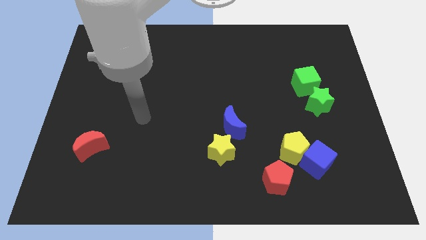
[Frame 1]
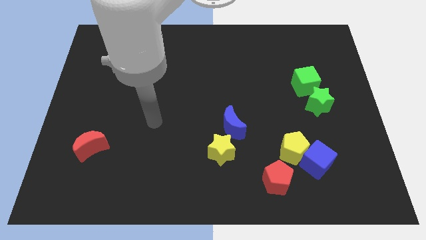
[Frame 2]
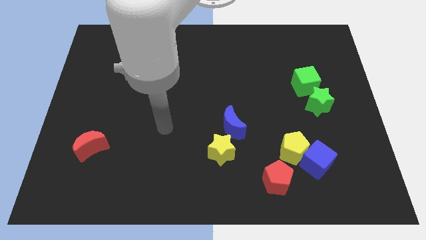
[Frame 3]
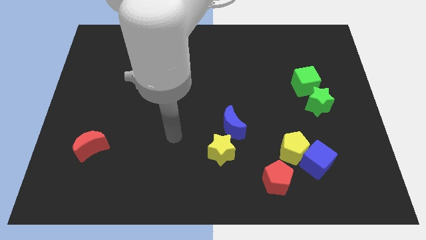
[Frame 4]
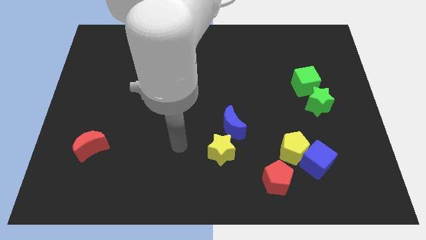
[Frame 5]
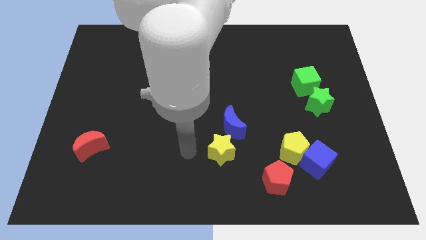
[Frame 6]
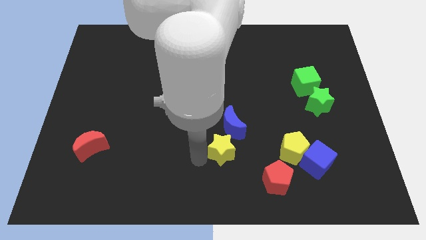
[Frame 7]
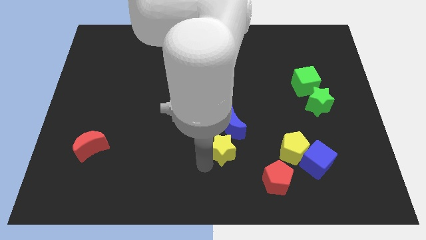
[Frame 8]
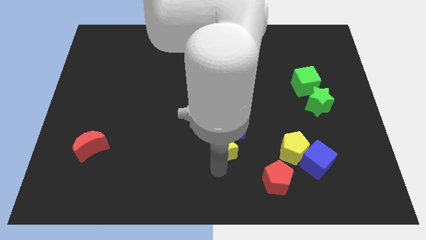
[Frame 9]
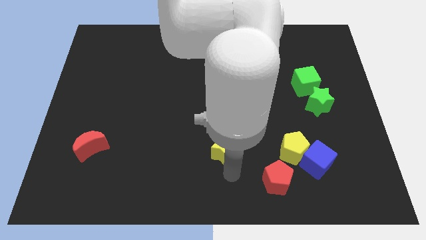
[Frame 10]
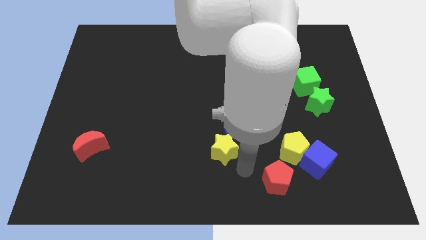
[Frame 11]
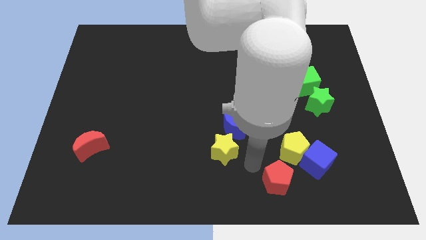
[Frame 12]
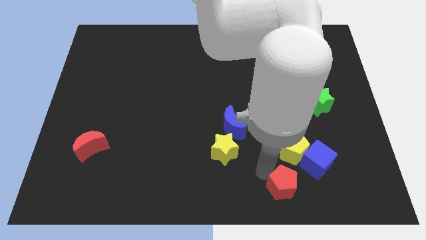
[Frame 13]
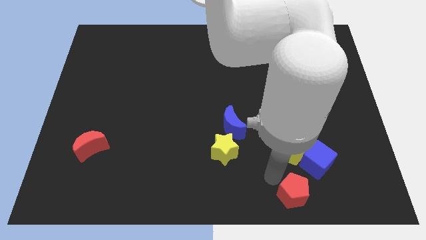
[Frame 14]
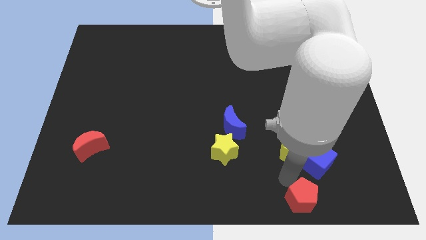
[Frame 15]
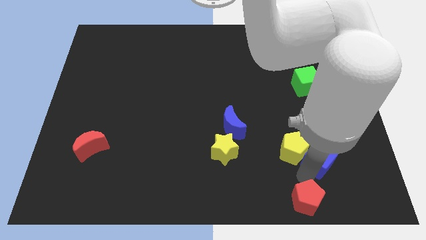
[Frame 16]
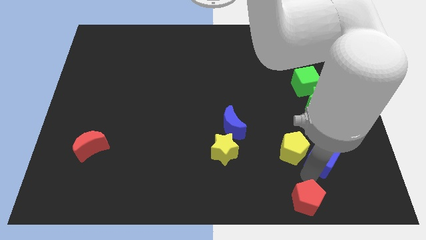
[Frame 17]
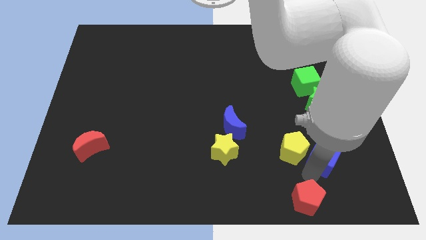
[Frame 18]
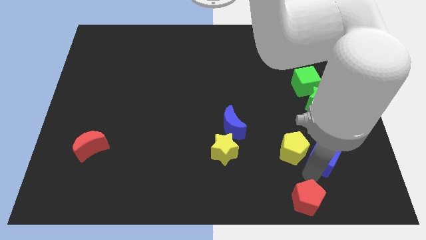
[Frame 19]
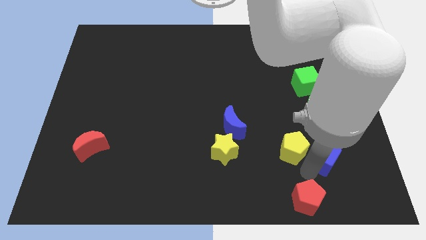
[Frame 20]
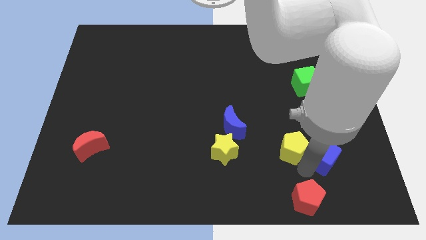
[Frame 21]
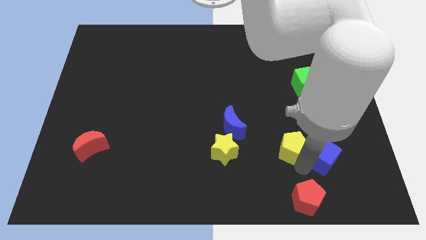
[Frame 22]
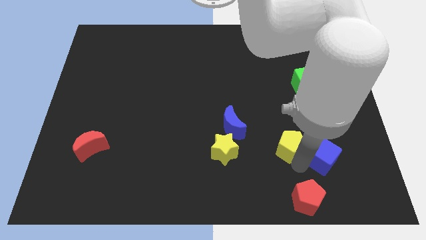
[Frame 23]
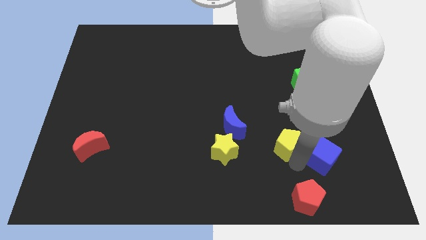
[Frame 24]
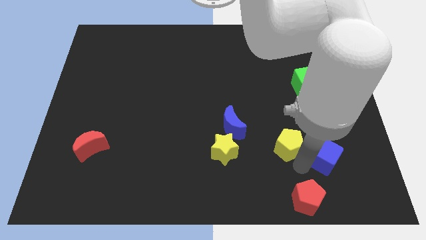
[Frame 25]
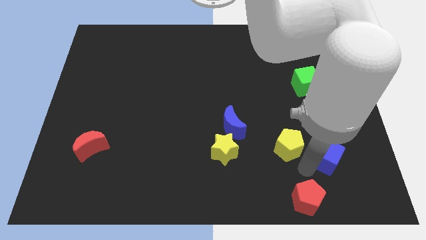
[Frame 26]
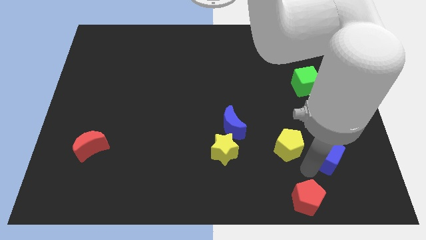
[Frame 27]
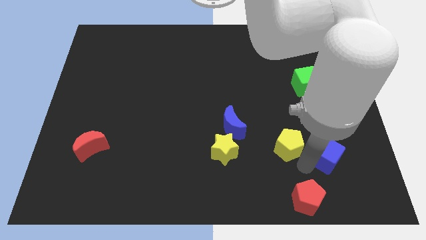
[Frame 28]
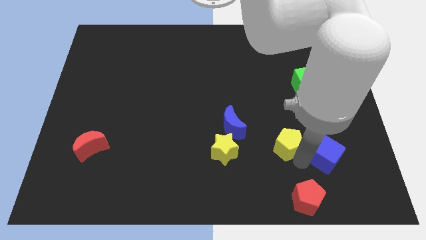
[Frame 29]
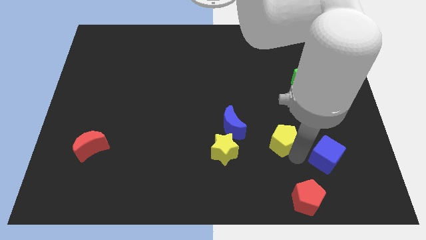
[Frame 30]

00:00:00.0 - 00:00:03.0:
move the yellow pentagon away from the blue cube and red pentagon

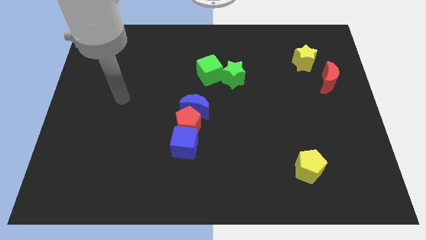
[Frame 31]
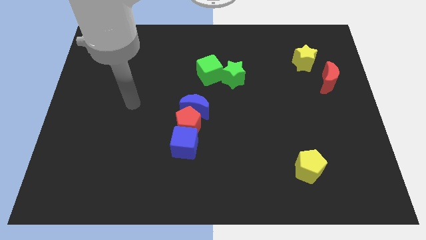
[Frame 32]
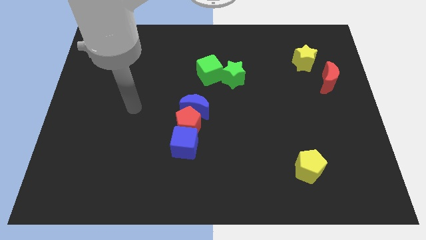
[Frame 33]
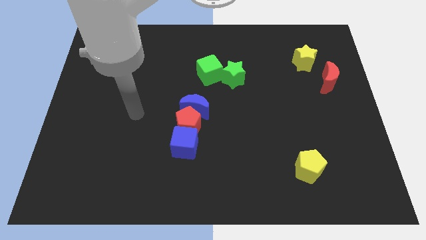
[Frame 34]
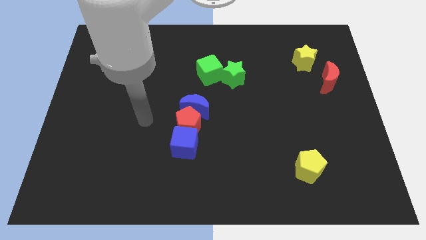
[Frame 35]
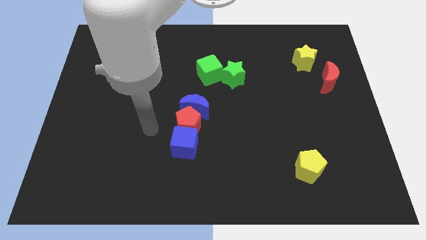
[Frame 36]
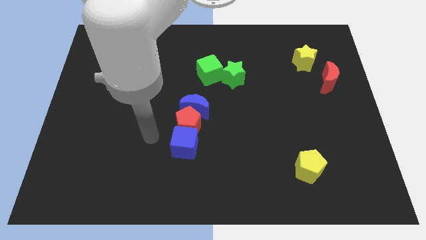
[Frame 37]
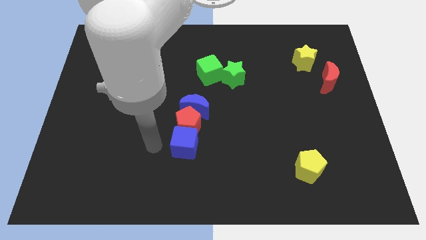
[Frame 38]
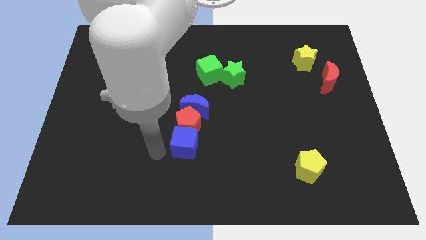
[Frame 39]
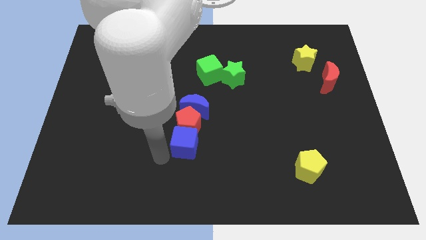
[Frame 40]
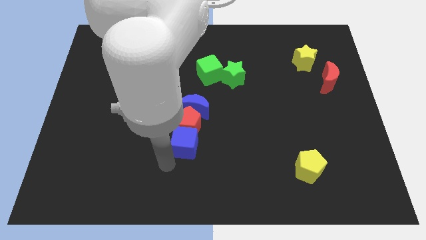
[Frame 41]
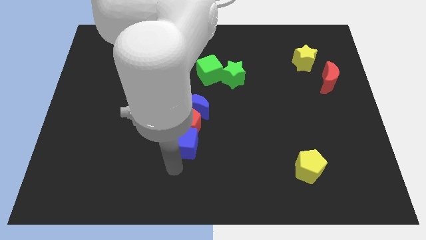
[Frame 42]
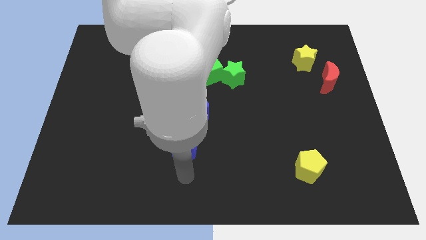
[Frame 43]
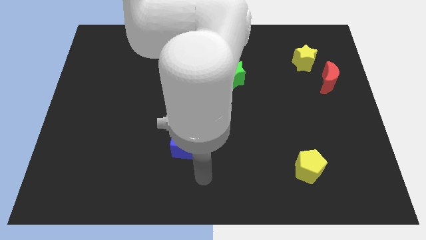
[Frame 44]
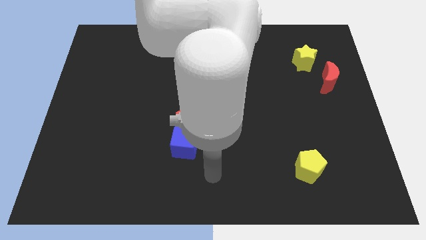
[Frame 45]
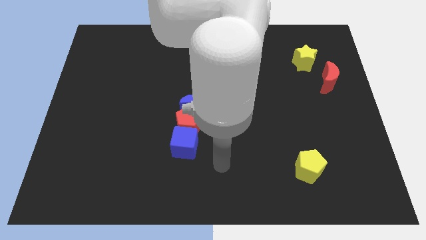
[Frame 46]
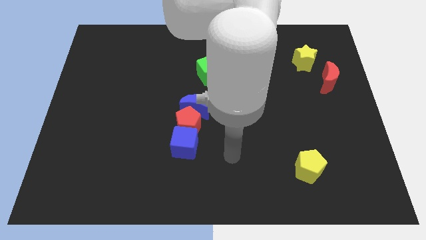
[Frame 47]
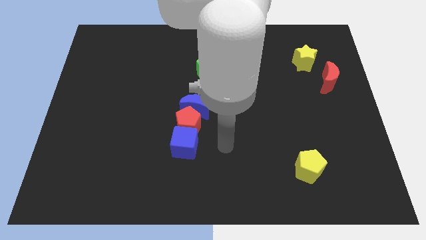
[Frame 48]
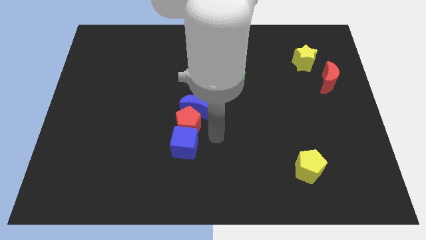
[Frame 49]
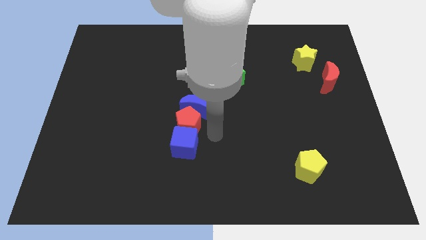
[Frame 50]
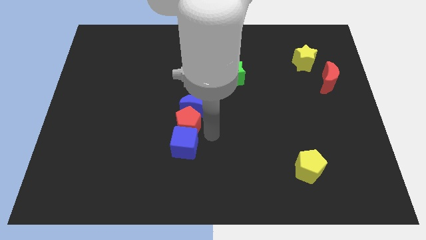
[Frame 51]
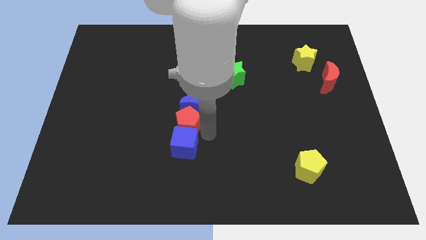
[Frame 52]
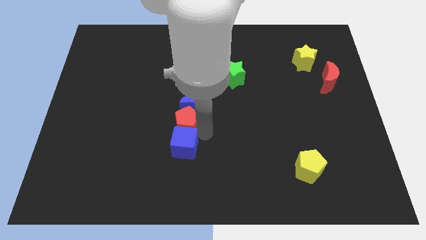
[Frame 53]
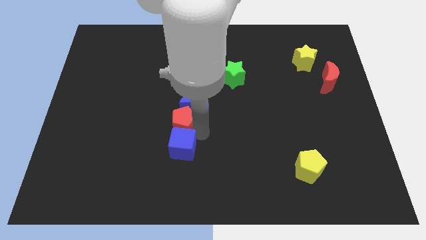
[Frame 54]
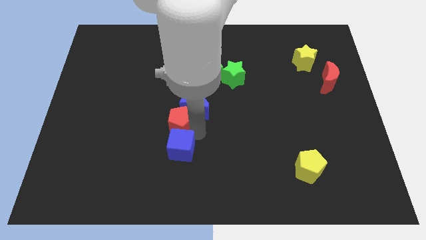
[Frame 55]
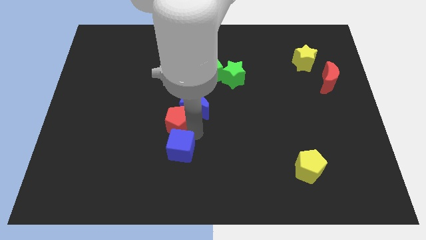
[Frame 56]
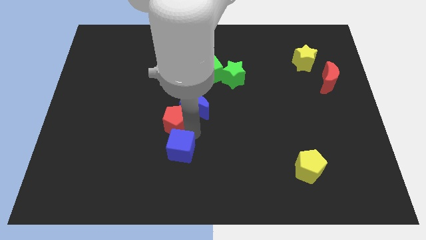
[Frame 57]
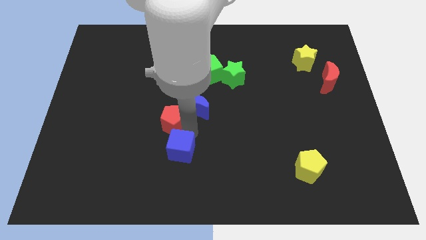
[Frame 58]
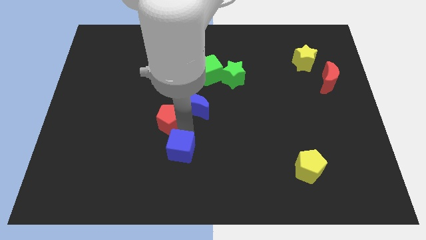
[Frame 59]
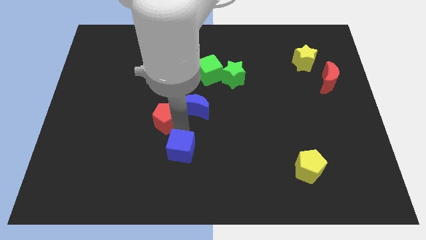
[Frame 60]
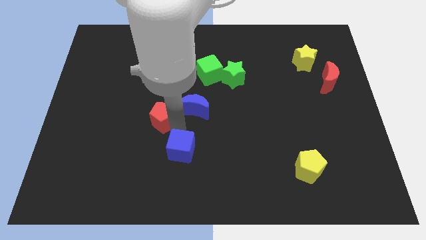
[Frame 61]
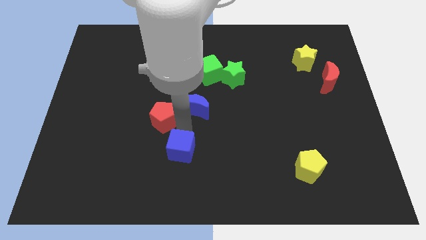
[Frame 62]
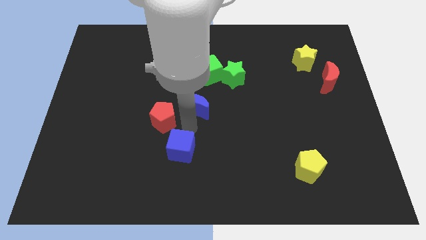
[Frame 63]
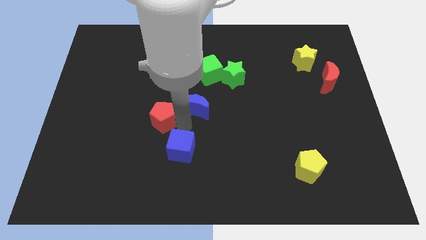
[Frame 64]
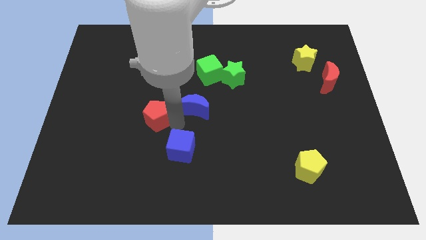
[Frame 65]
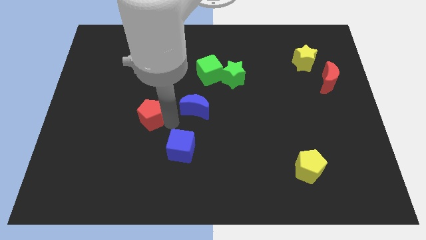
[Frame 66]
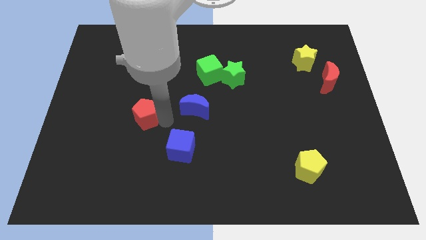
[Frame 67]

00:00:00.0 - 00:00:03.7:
separate the red pentagon from the blue moon and blue cube

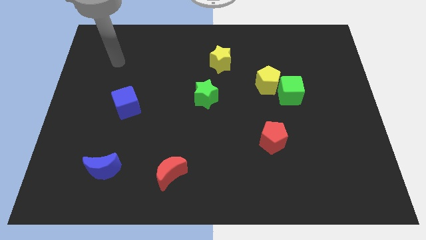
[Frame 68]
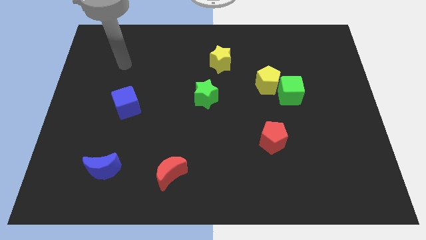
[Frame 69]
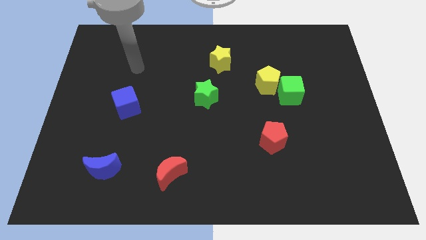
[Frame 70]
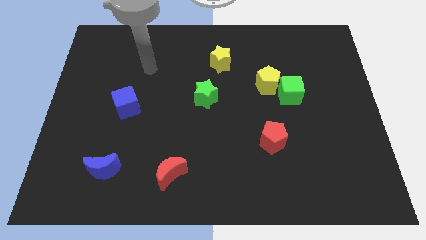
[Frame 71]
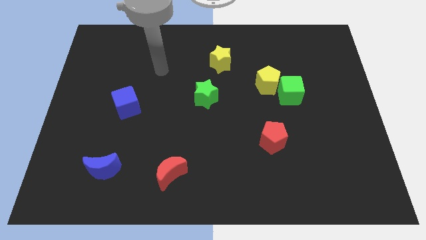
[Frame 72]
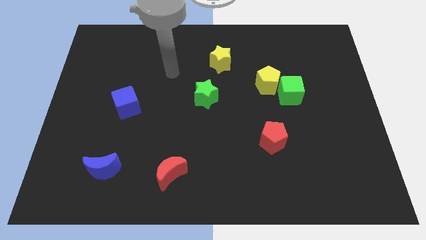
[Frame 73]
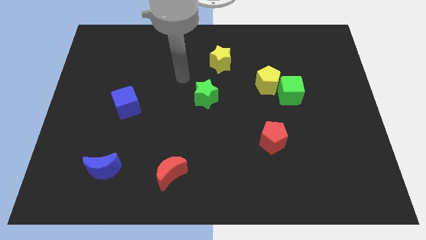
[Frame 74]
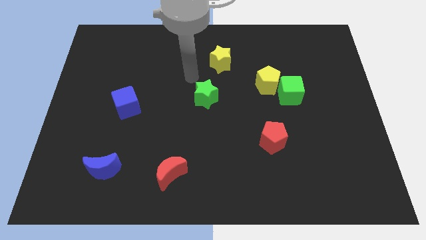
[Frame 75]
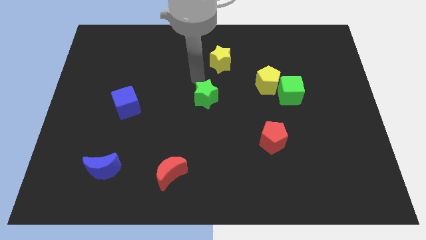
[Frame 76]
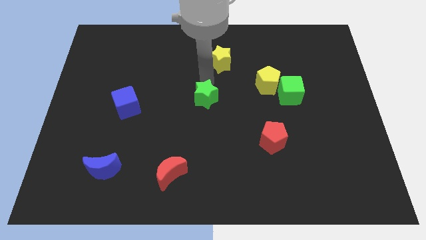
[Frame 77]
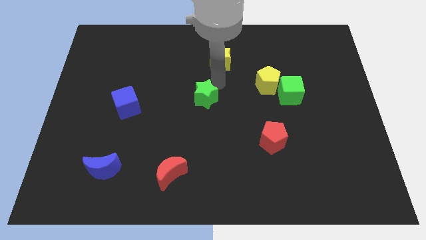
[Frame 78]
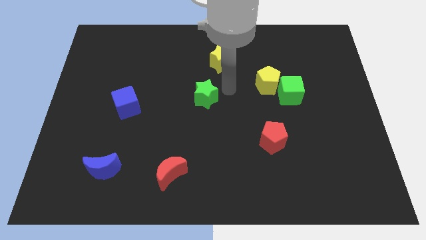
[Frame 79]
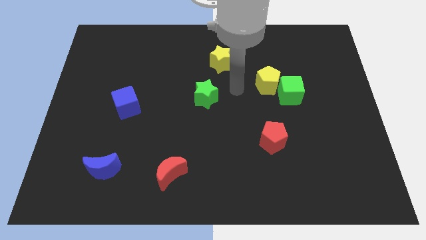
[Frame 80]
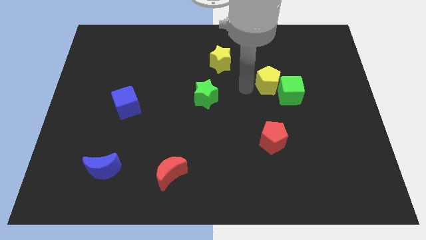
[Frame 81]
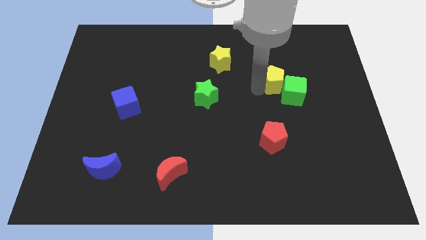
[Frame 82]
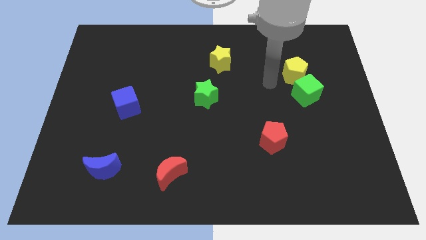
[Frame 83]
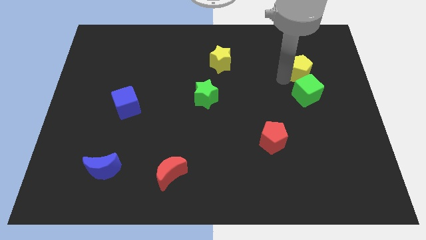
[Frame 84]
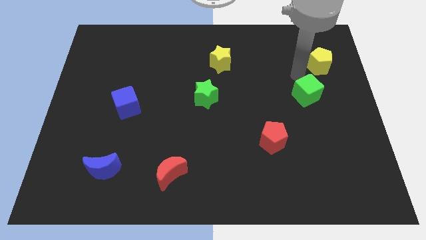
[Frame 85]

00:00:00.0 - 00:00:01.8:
move the green cube away from the yellow pentagon

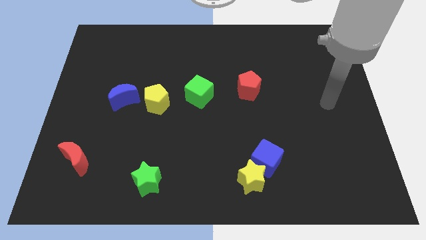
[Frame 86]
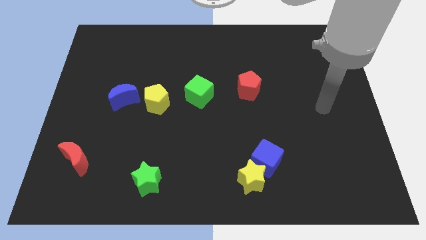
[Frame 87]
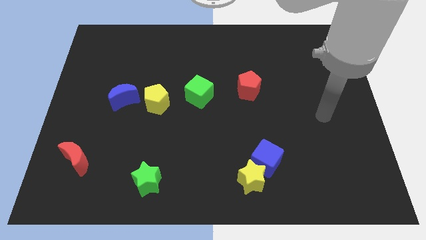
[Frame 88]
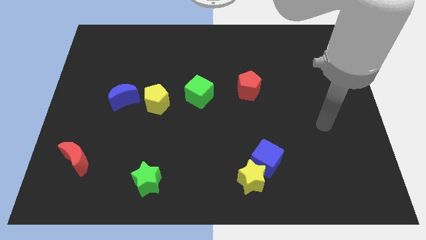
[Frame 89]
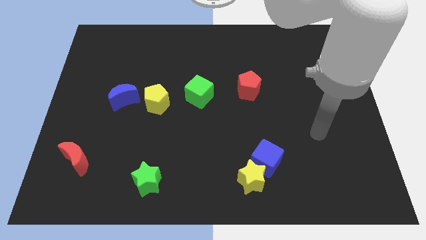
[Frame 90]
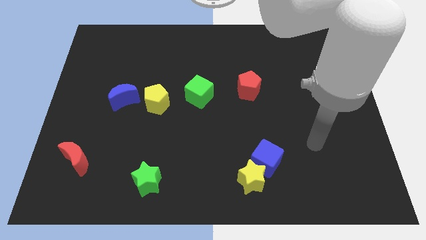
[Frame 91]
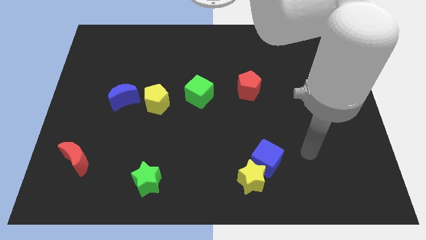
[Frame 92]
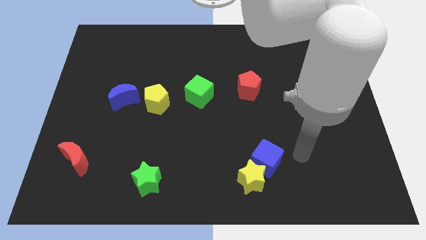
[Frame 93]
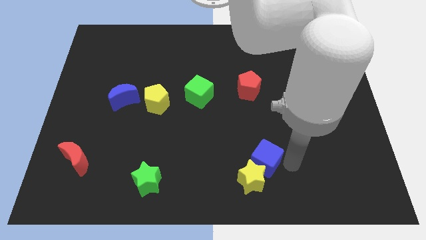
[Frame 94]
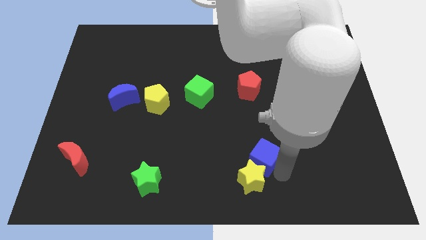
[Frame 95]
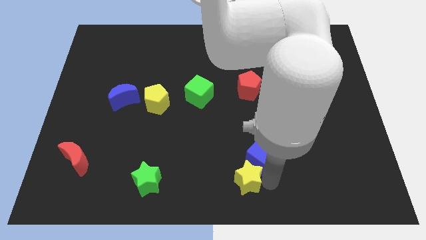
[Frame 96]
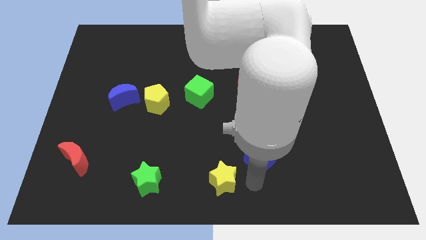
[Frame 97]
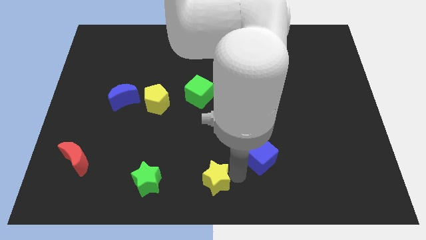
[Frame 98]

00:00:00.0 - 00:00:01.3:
separate the blue cube from the yellow star
